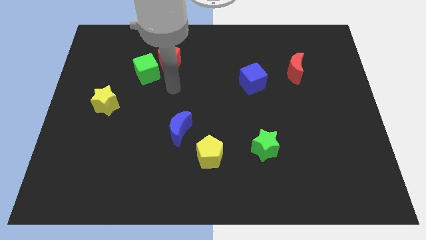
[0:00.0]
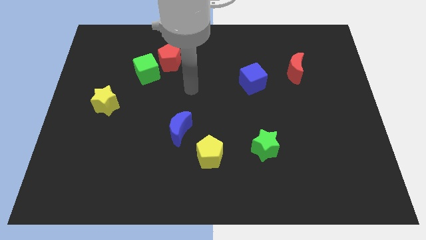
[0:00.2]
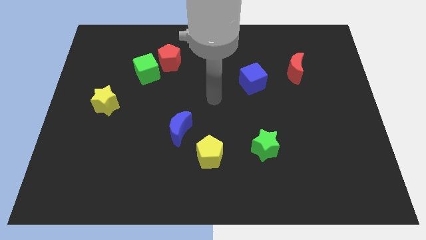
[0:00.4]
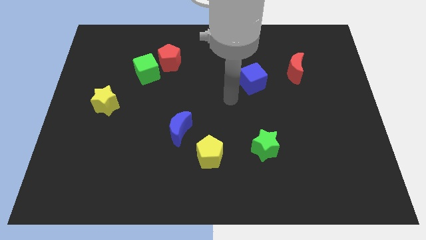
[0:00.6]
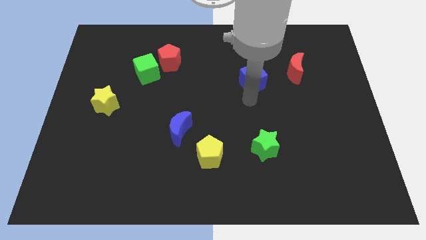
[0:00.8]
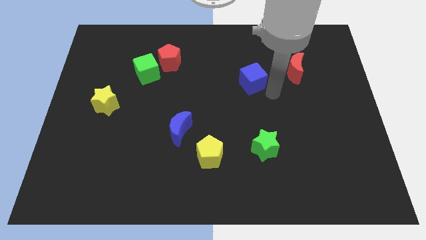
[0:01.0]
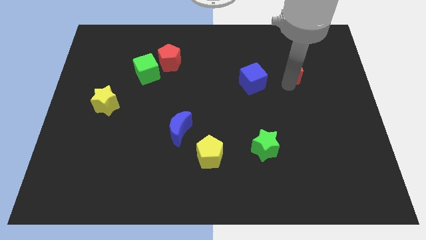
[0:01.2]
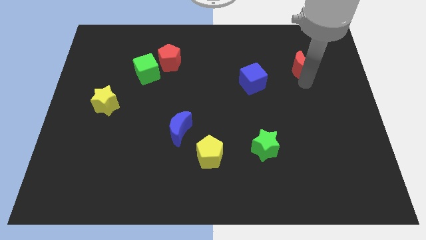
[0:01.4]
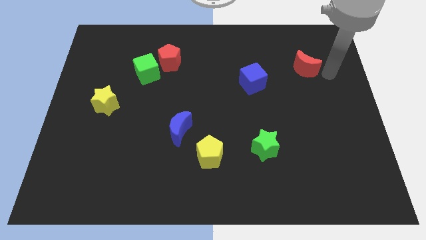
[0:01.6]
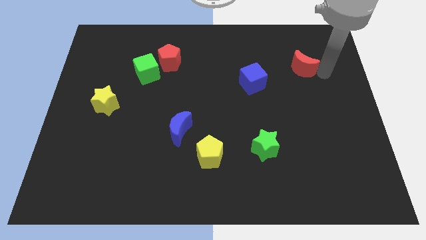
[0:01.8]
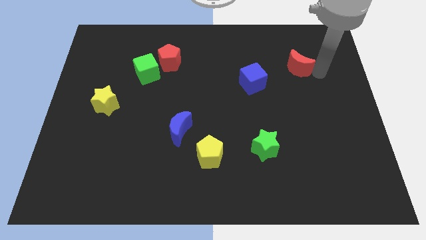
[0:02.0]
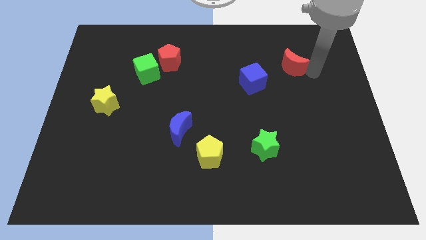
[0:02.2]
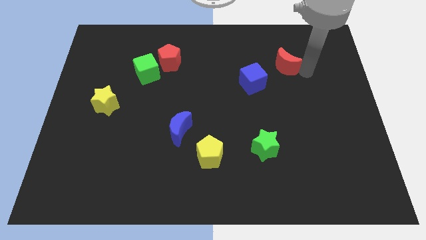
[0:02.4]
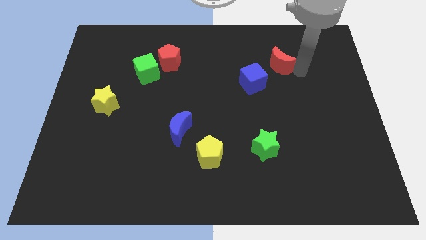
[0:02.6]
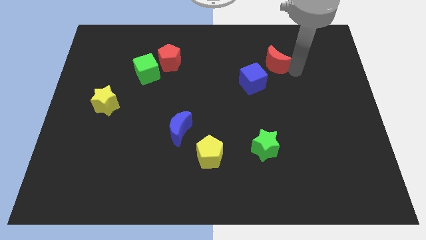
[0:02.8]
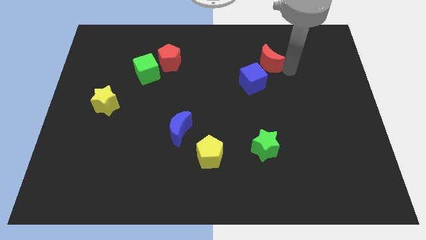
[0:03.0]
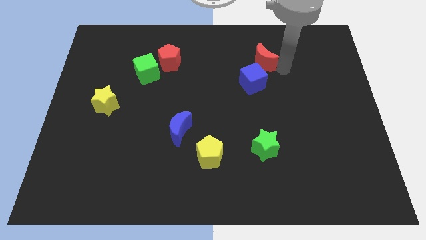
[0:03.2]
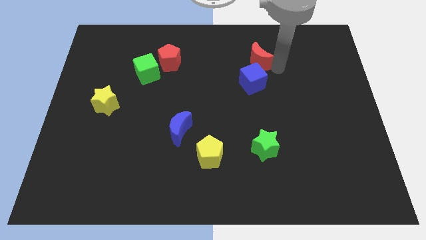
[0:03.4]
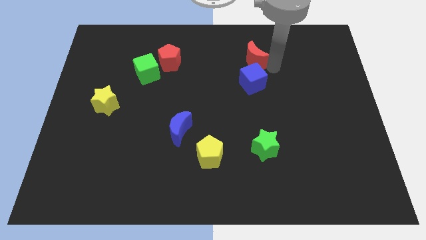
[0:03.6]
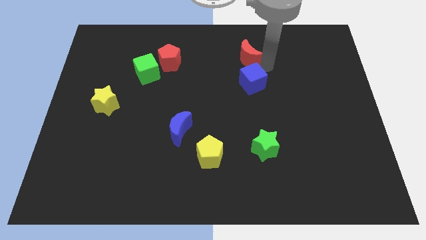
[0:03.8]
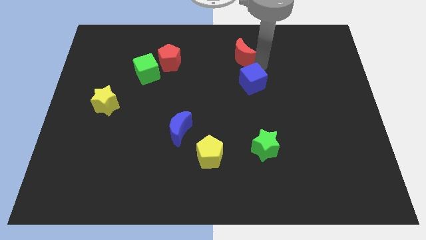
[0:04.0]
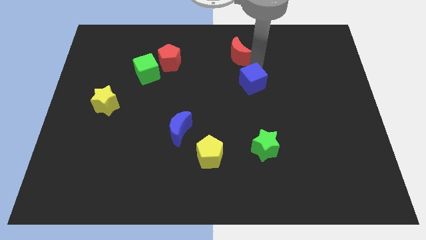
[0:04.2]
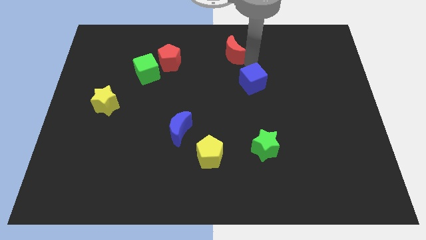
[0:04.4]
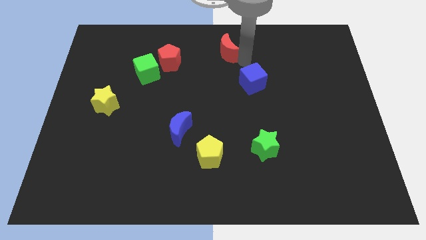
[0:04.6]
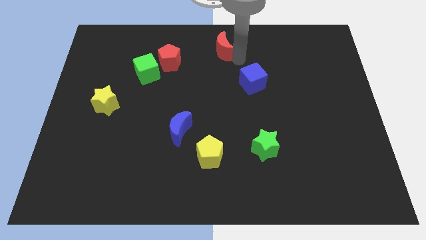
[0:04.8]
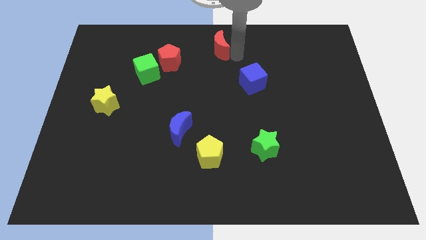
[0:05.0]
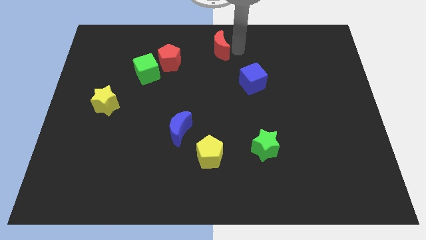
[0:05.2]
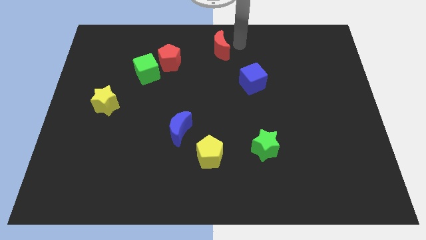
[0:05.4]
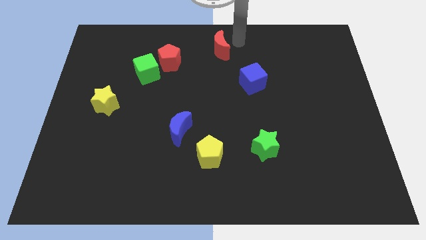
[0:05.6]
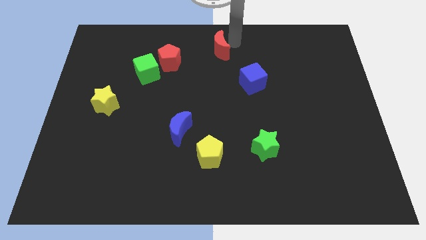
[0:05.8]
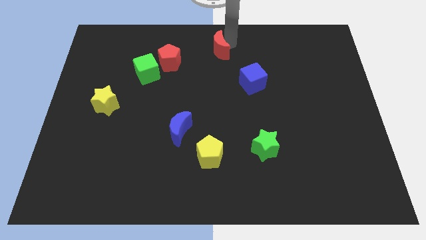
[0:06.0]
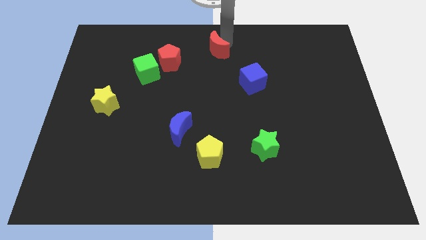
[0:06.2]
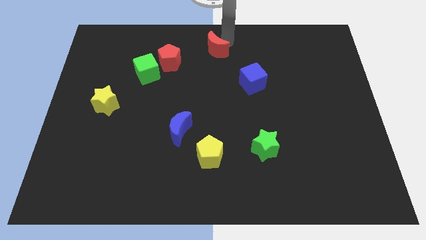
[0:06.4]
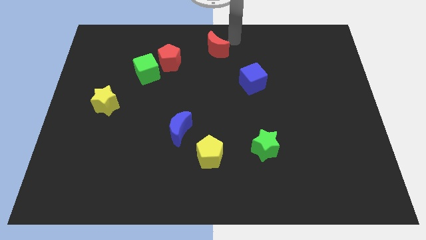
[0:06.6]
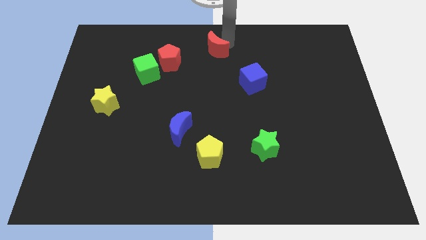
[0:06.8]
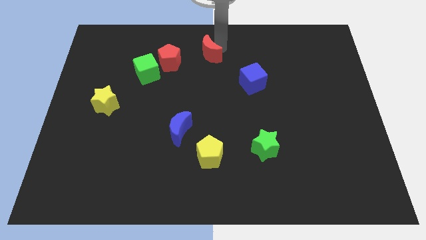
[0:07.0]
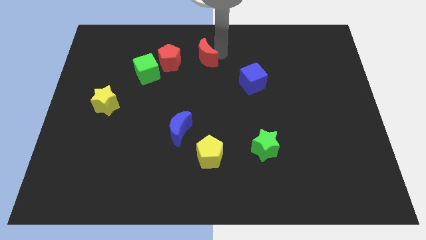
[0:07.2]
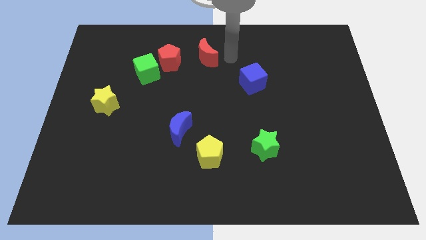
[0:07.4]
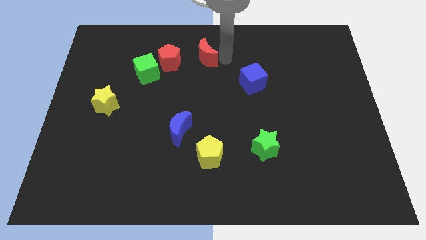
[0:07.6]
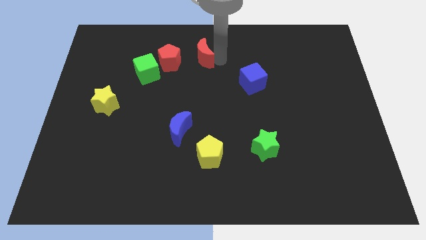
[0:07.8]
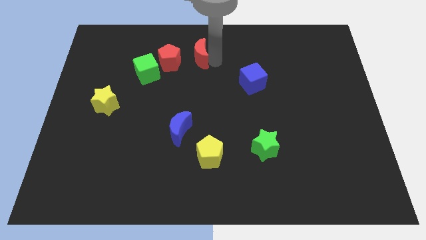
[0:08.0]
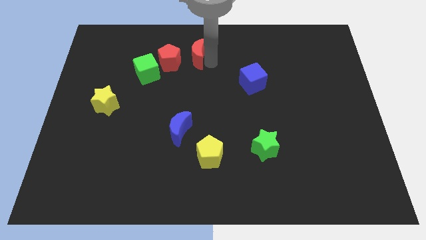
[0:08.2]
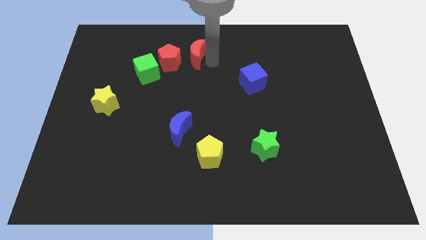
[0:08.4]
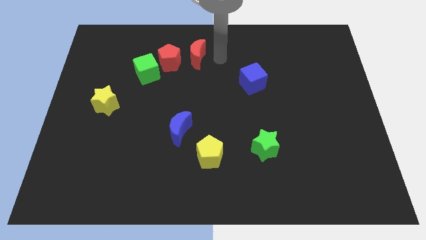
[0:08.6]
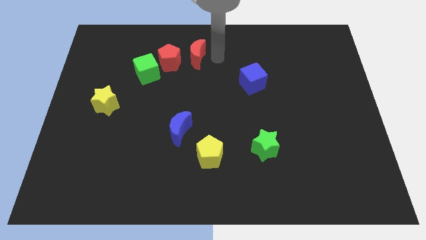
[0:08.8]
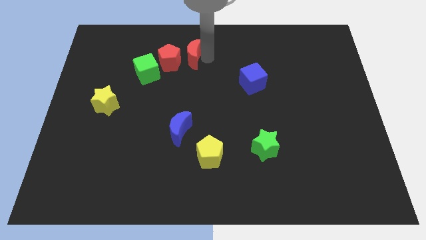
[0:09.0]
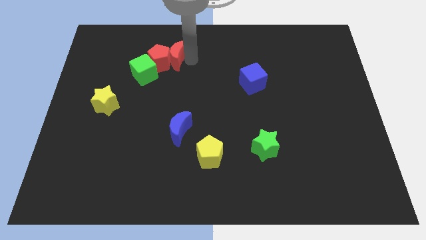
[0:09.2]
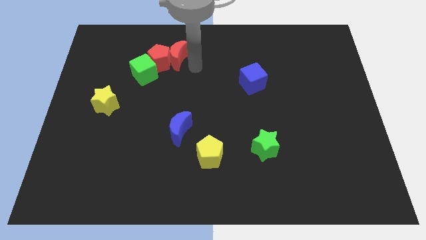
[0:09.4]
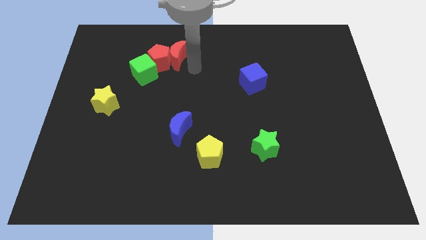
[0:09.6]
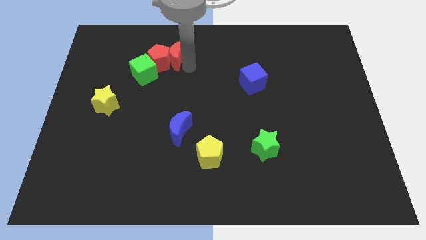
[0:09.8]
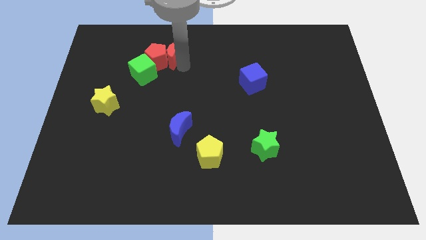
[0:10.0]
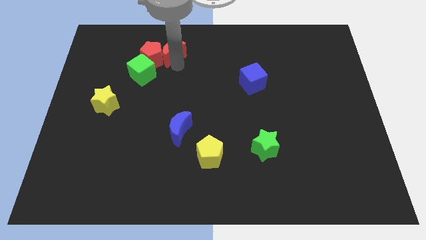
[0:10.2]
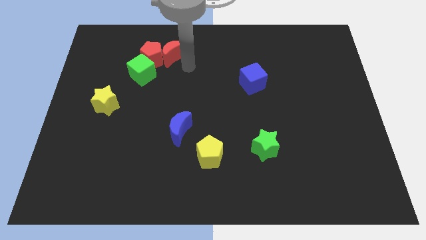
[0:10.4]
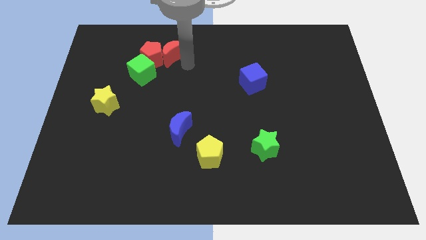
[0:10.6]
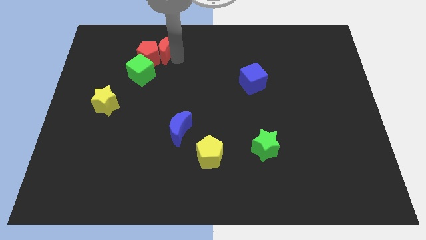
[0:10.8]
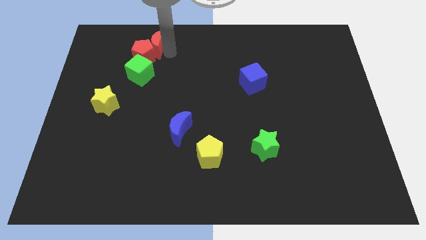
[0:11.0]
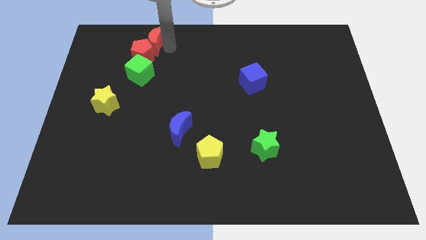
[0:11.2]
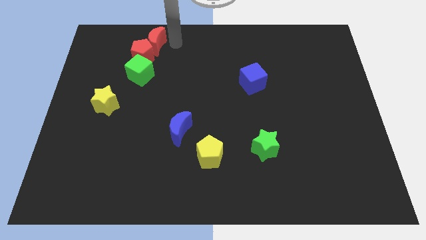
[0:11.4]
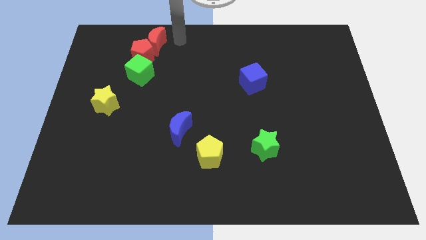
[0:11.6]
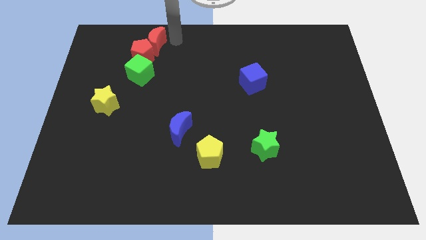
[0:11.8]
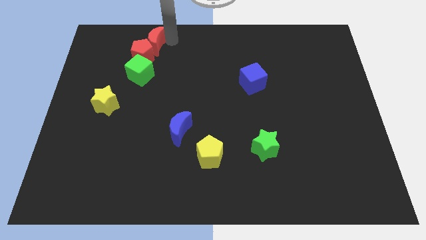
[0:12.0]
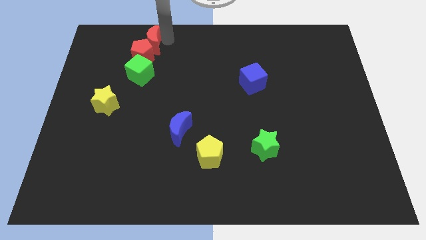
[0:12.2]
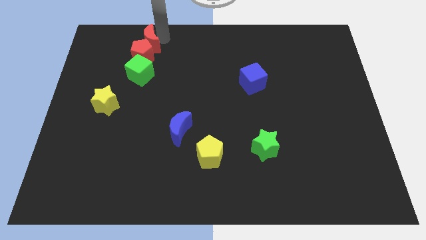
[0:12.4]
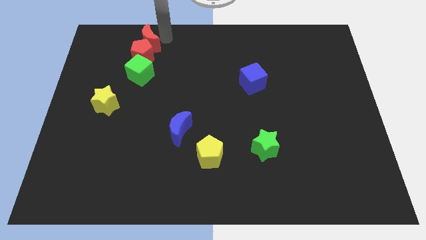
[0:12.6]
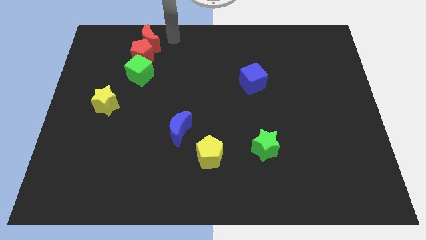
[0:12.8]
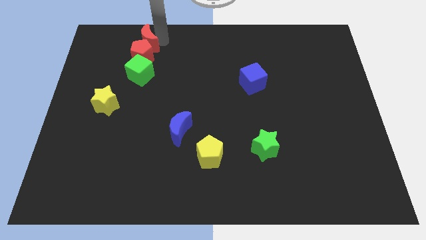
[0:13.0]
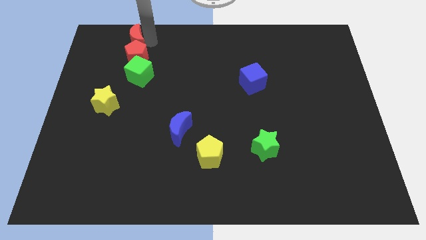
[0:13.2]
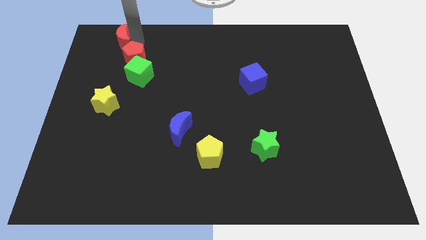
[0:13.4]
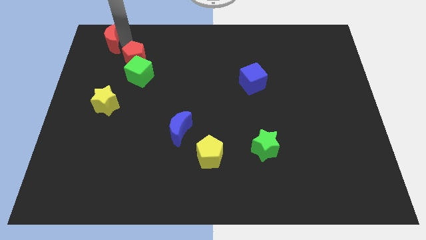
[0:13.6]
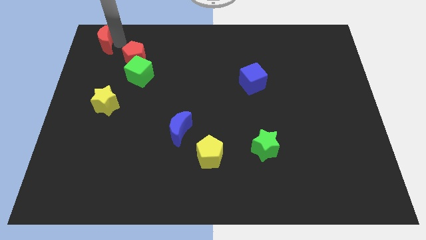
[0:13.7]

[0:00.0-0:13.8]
move the red moon to the upper left corner
